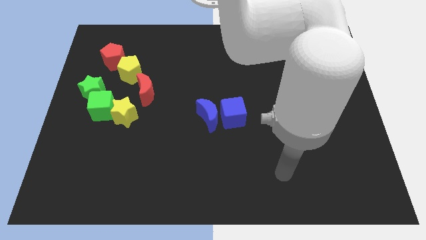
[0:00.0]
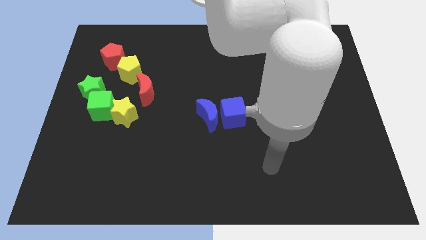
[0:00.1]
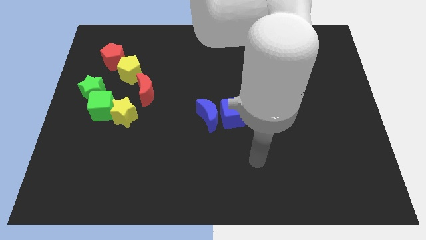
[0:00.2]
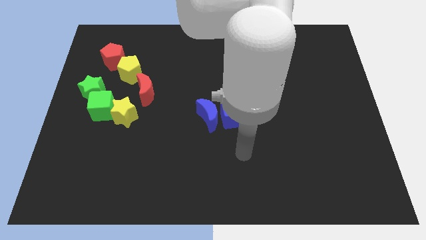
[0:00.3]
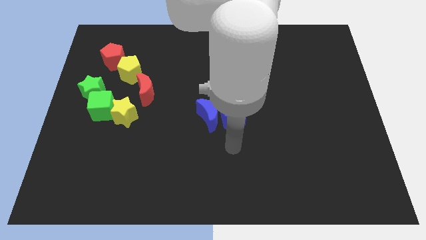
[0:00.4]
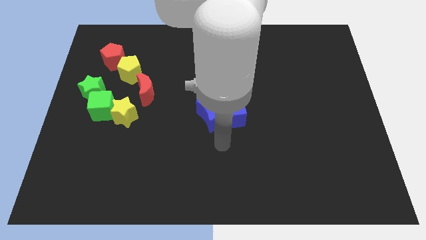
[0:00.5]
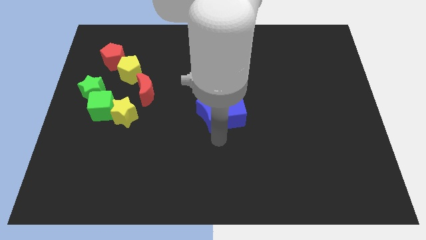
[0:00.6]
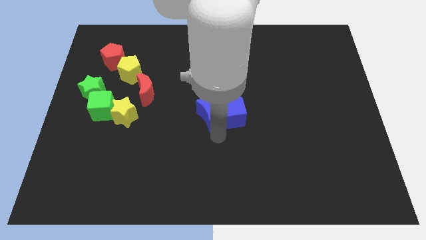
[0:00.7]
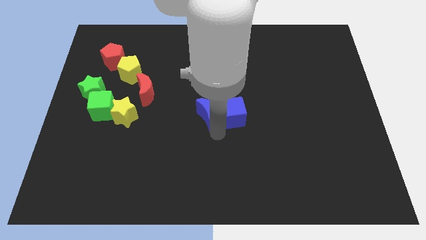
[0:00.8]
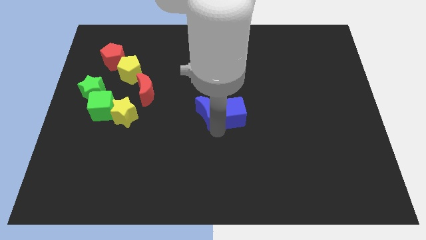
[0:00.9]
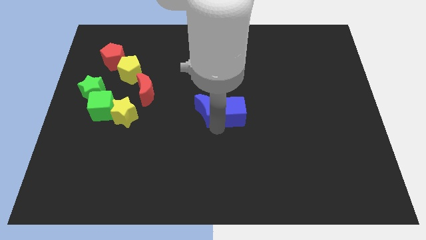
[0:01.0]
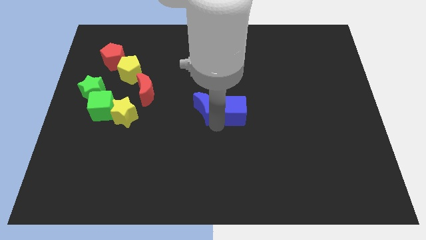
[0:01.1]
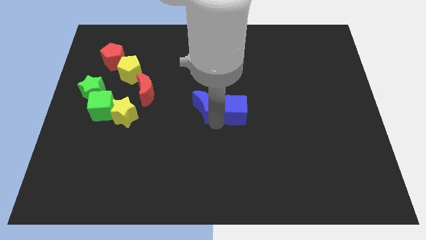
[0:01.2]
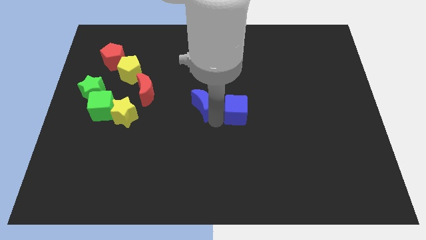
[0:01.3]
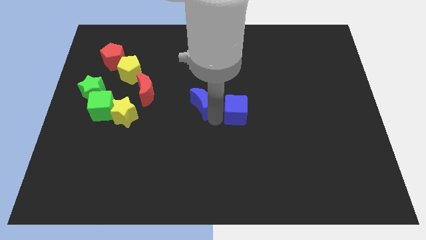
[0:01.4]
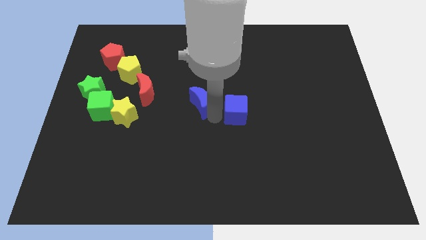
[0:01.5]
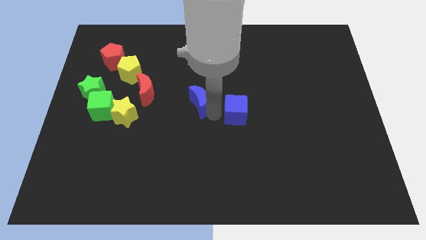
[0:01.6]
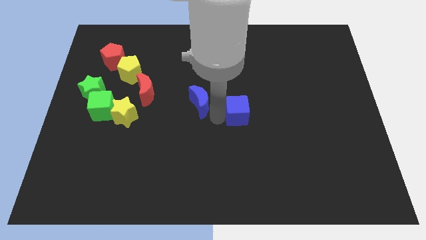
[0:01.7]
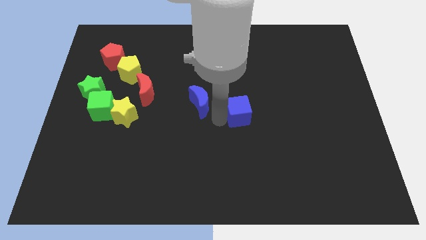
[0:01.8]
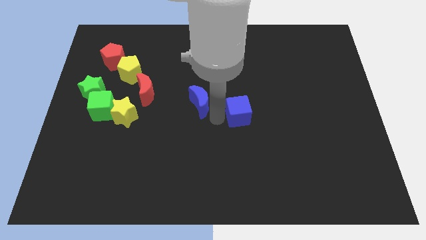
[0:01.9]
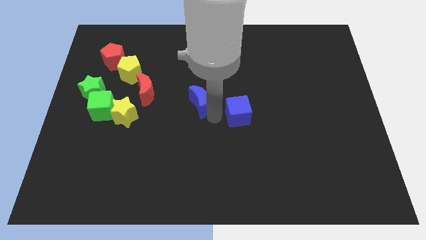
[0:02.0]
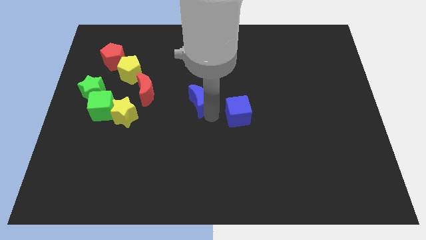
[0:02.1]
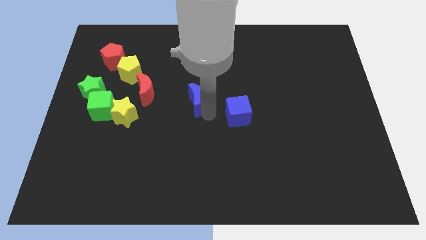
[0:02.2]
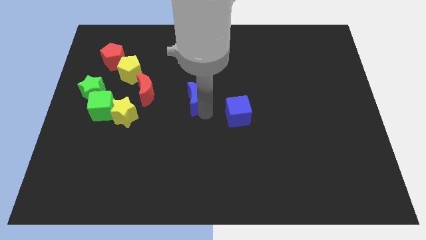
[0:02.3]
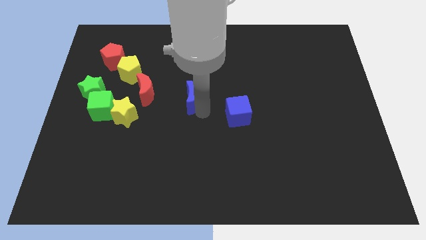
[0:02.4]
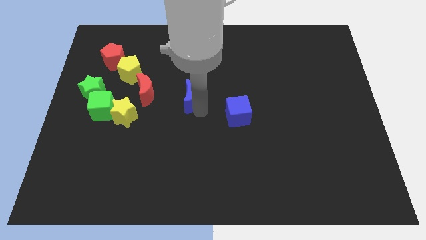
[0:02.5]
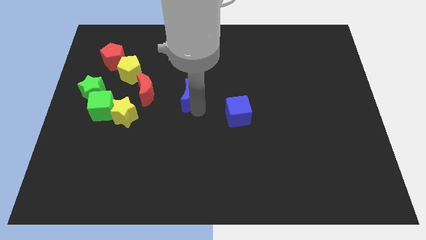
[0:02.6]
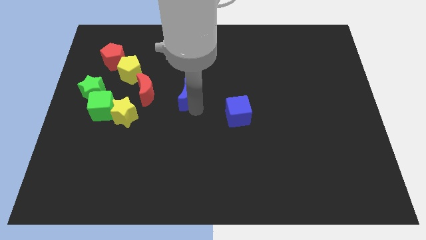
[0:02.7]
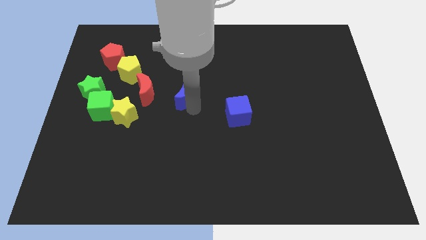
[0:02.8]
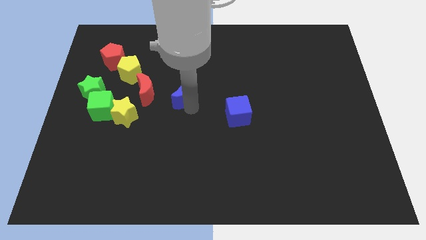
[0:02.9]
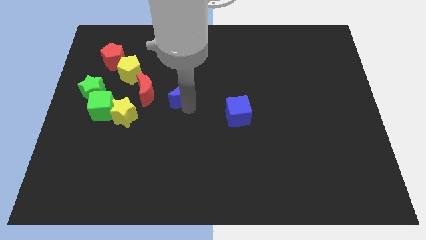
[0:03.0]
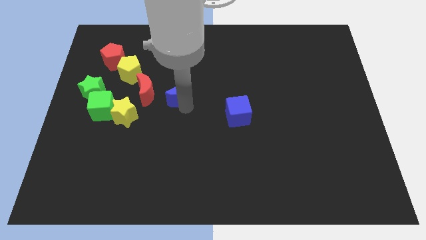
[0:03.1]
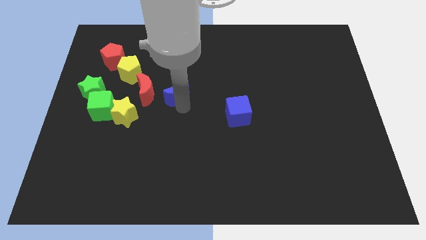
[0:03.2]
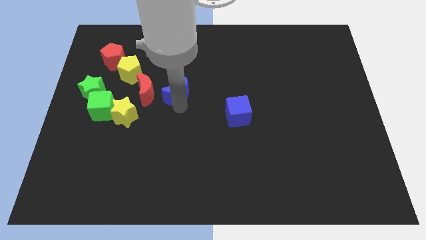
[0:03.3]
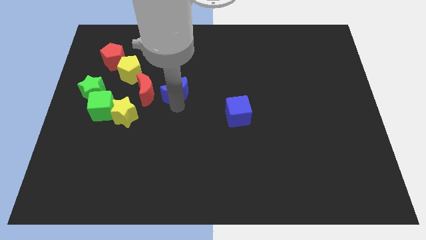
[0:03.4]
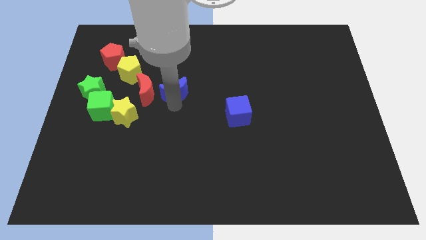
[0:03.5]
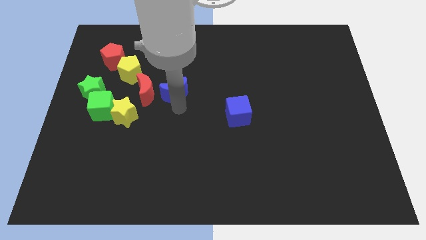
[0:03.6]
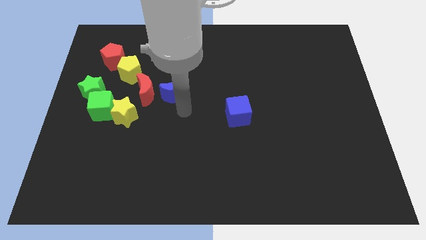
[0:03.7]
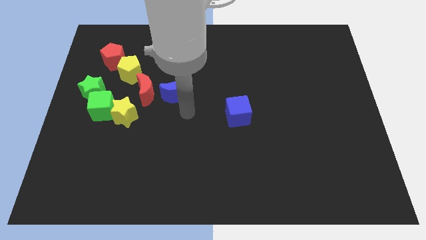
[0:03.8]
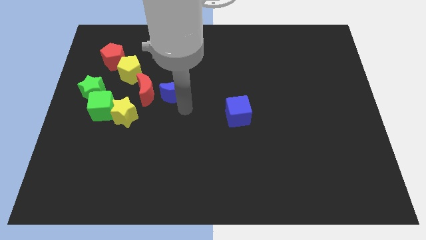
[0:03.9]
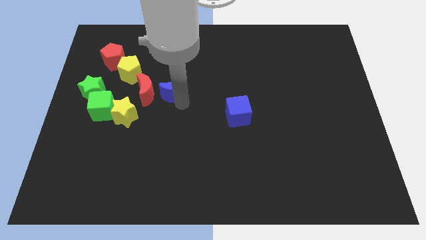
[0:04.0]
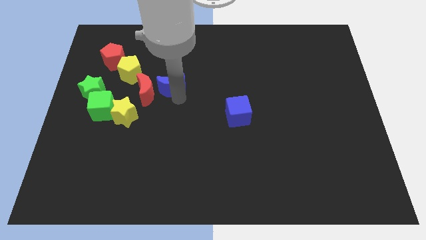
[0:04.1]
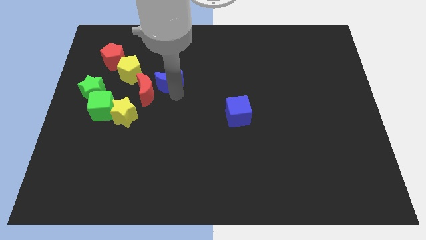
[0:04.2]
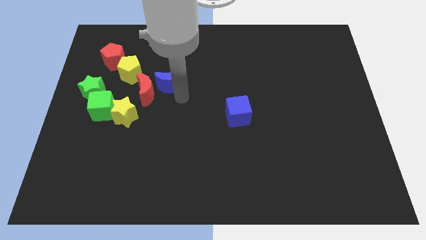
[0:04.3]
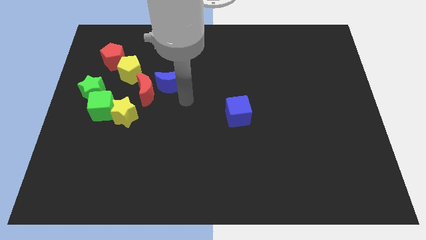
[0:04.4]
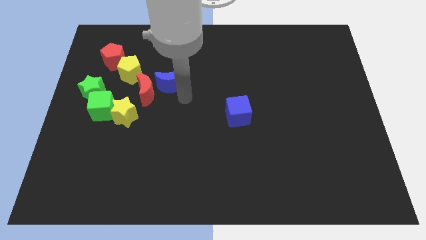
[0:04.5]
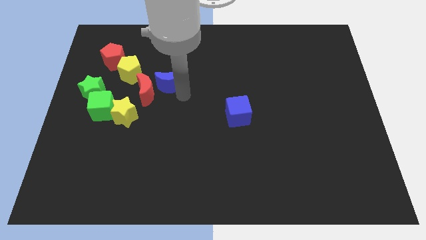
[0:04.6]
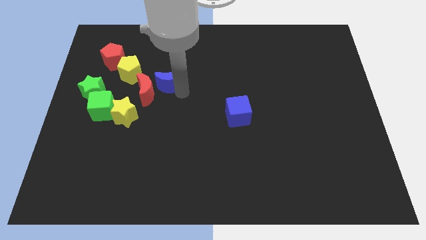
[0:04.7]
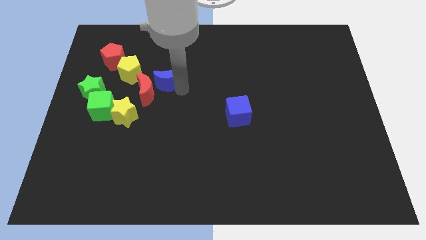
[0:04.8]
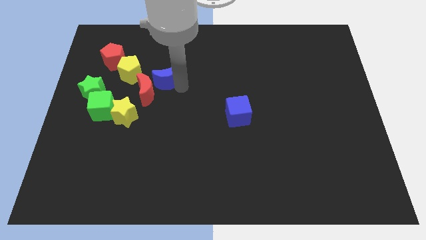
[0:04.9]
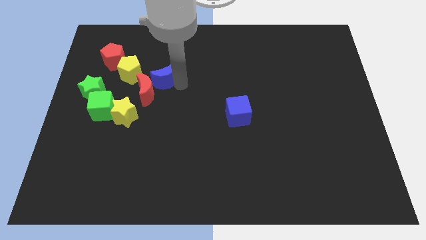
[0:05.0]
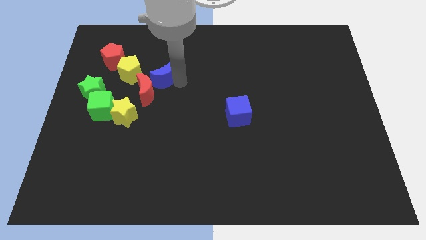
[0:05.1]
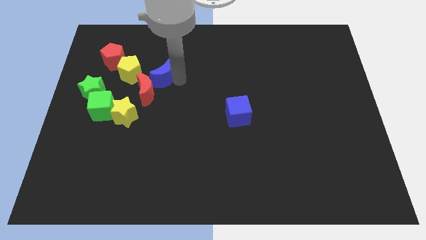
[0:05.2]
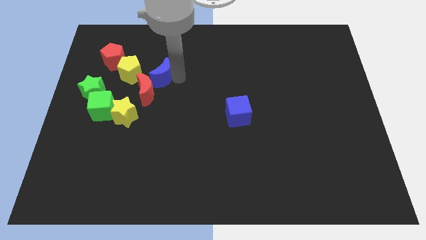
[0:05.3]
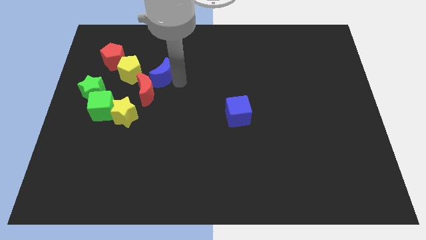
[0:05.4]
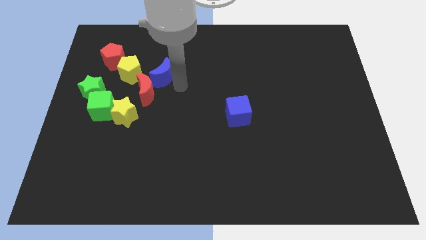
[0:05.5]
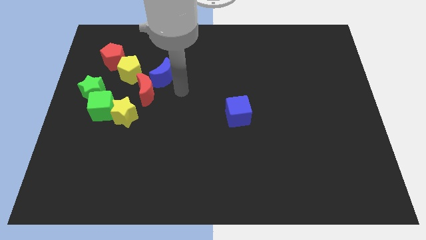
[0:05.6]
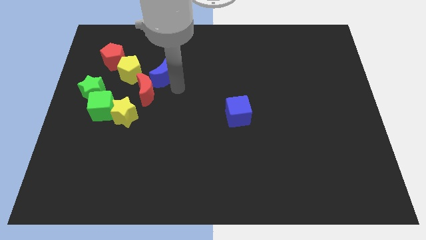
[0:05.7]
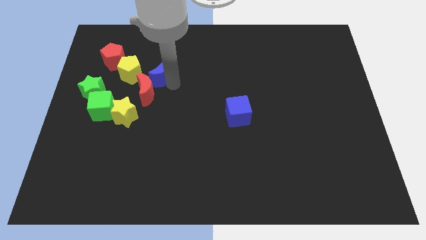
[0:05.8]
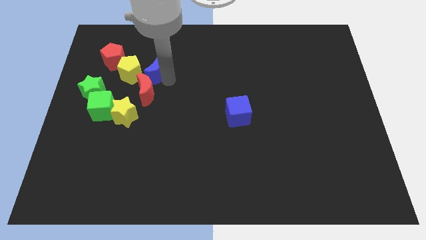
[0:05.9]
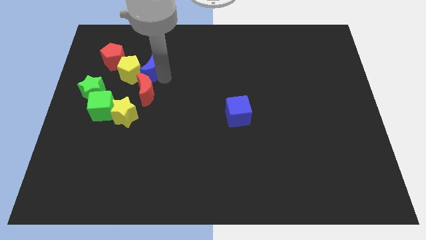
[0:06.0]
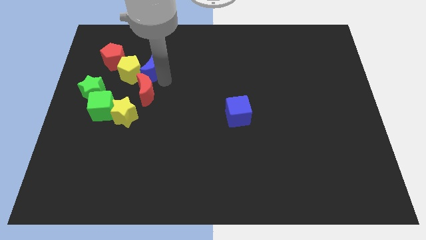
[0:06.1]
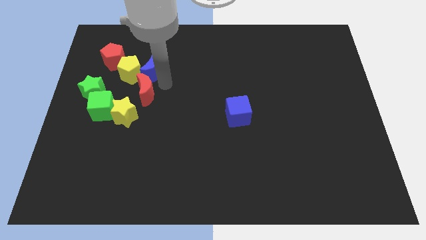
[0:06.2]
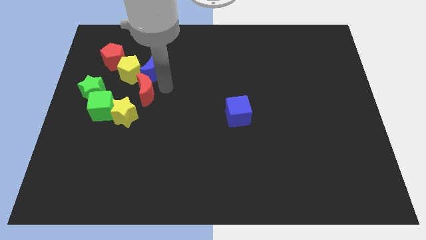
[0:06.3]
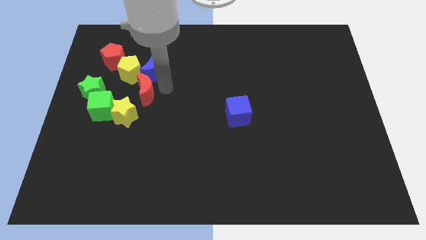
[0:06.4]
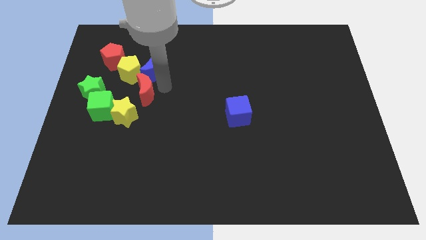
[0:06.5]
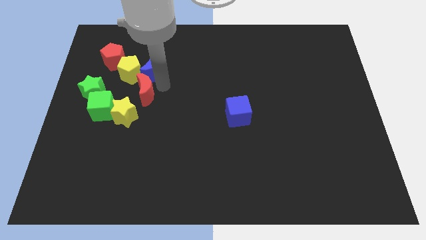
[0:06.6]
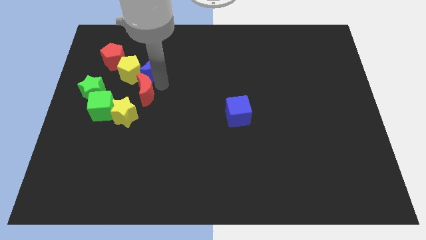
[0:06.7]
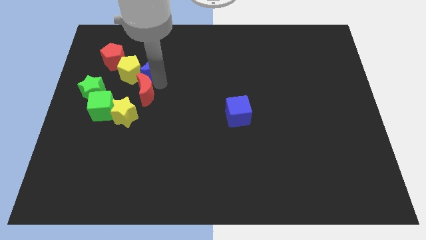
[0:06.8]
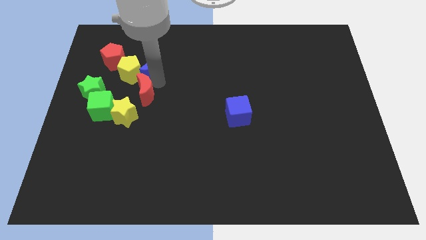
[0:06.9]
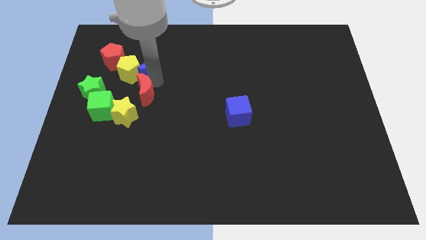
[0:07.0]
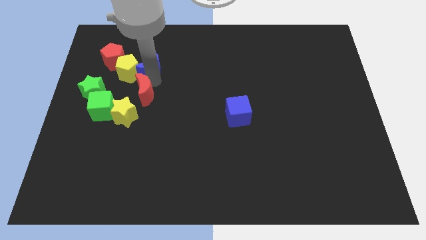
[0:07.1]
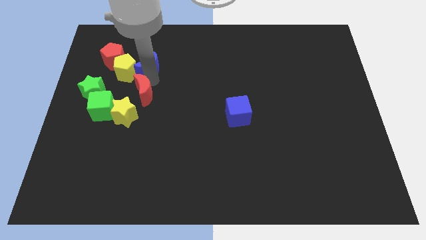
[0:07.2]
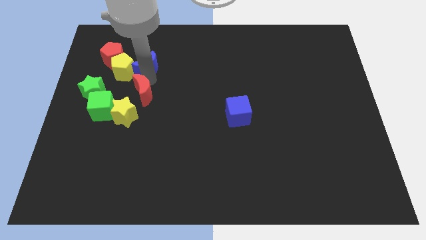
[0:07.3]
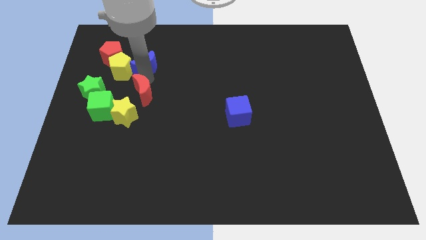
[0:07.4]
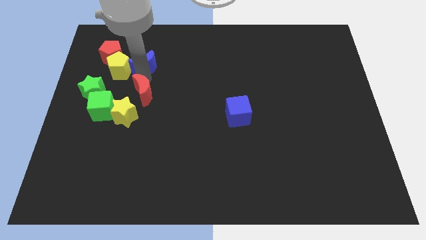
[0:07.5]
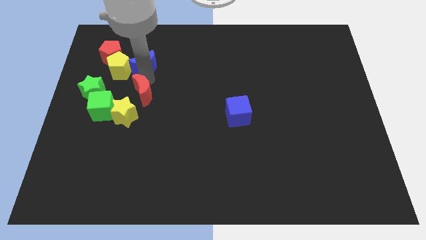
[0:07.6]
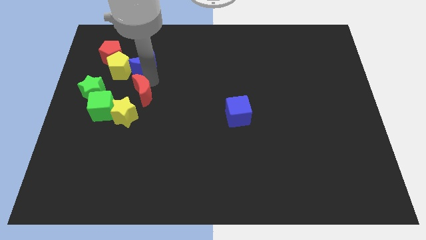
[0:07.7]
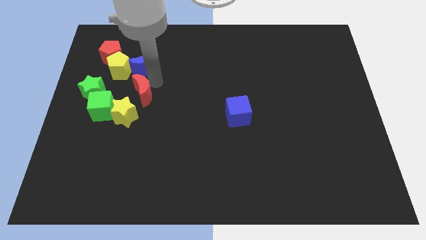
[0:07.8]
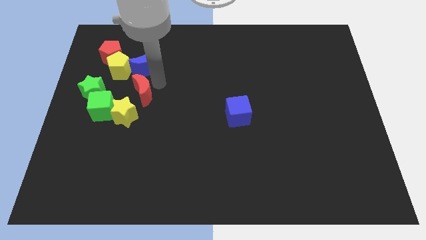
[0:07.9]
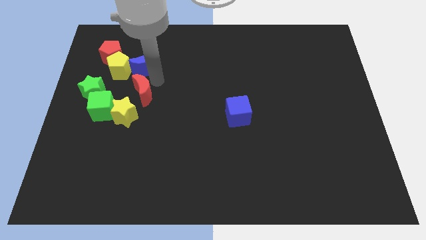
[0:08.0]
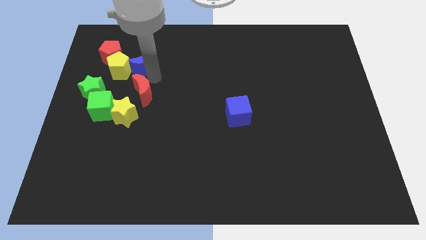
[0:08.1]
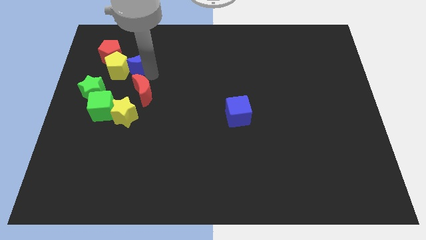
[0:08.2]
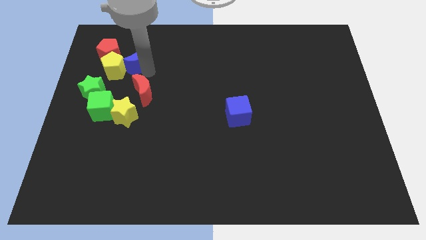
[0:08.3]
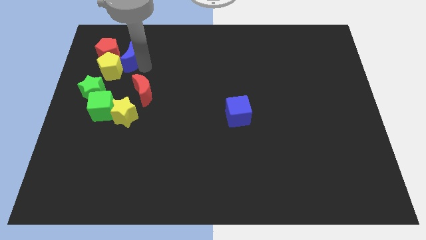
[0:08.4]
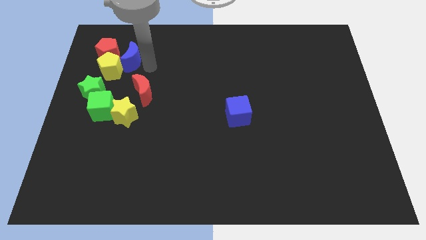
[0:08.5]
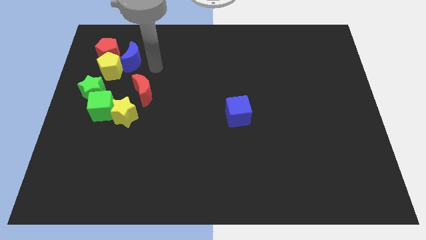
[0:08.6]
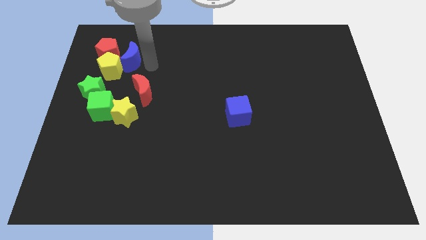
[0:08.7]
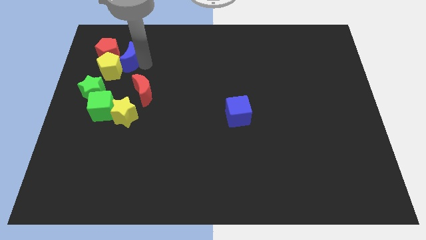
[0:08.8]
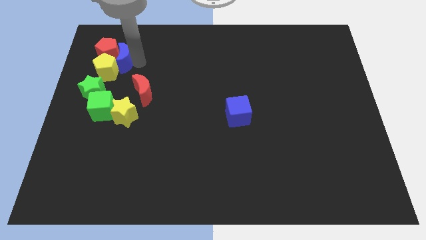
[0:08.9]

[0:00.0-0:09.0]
slide the blue moon close to the red pentagon
